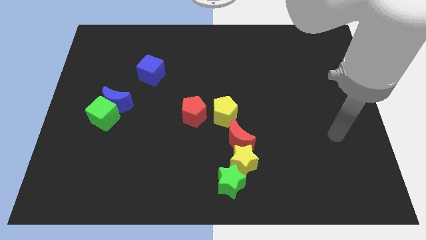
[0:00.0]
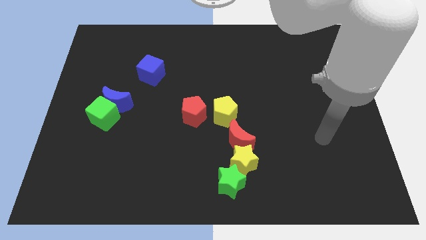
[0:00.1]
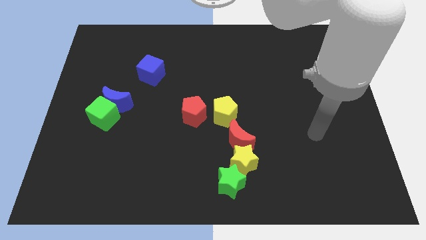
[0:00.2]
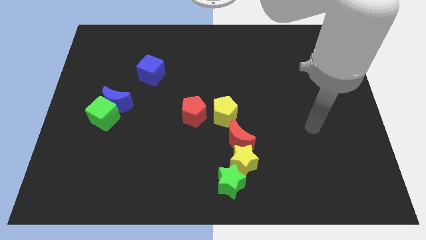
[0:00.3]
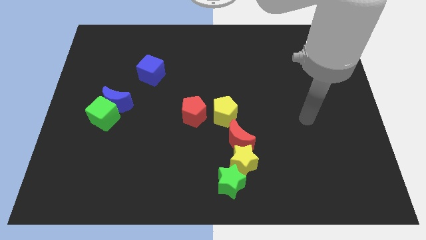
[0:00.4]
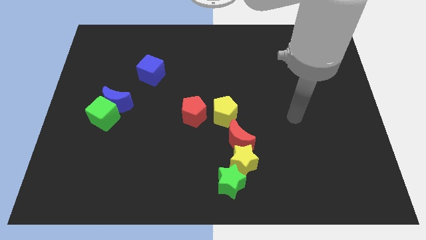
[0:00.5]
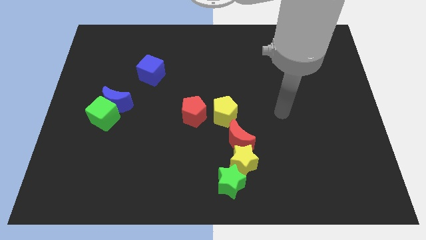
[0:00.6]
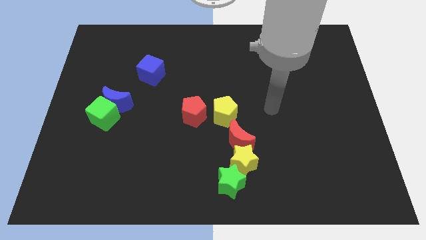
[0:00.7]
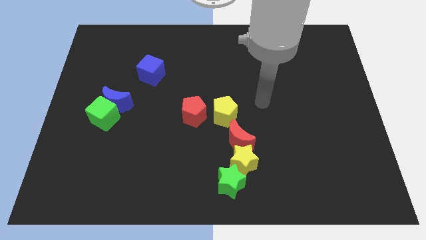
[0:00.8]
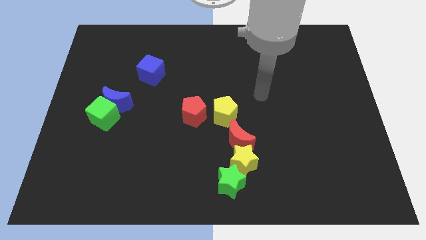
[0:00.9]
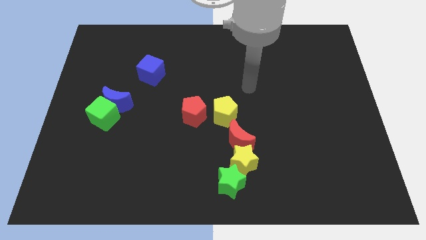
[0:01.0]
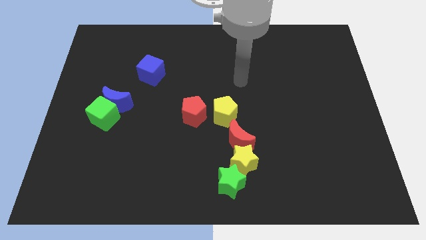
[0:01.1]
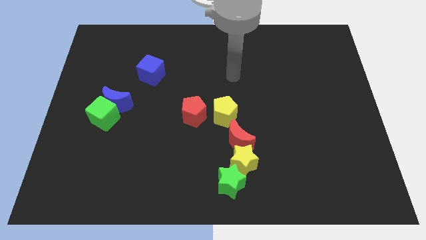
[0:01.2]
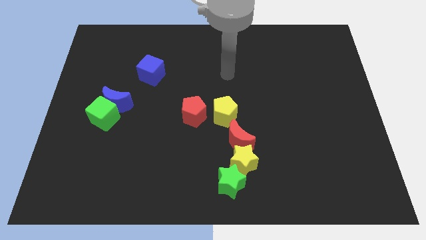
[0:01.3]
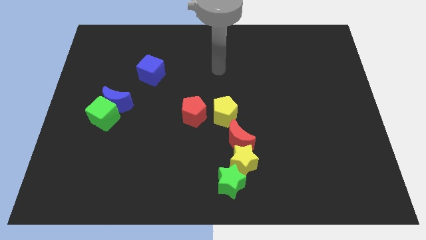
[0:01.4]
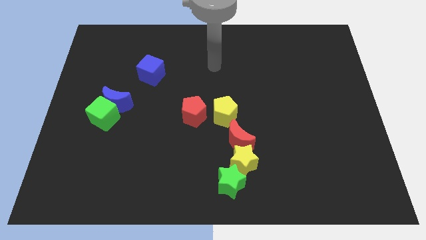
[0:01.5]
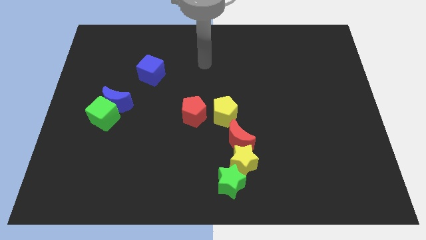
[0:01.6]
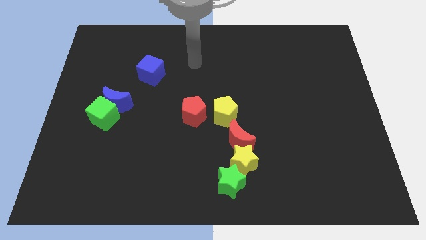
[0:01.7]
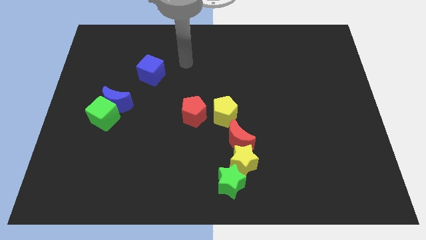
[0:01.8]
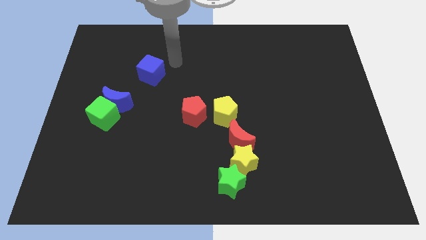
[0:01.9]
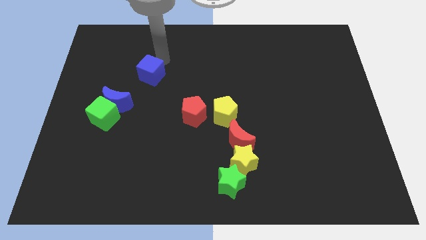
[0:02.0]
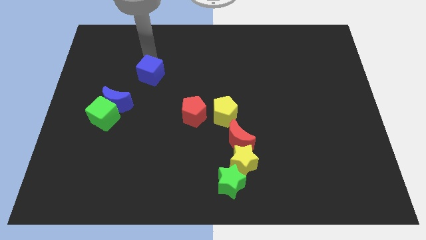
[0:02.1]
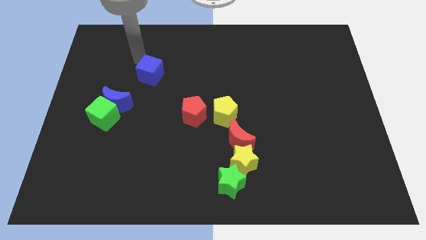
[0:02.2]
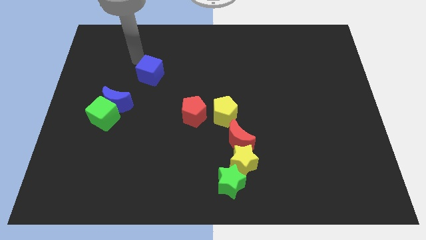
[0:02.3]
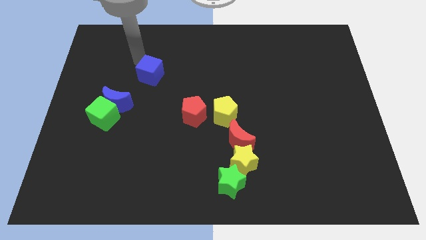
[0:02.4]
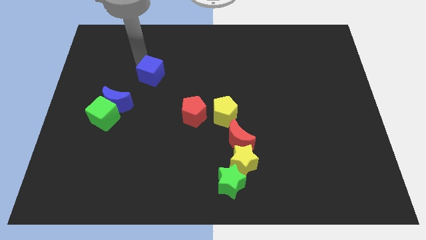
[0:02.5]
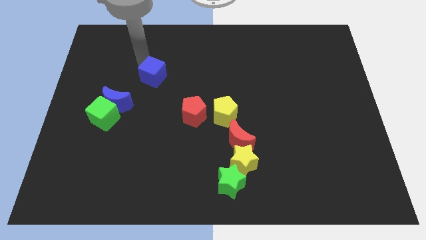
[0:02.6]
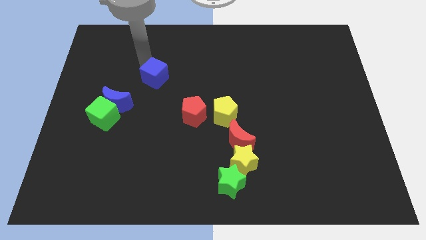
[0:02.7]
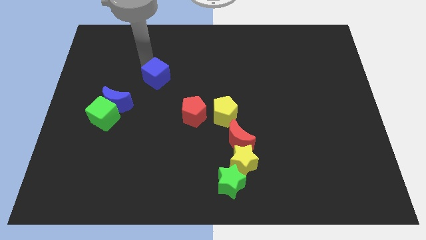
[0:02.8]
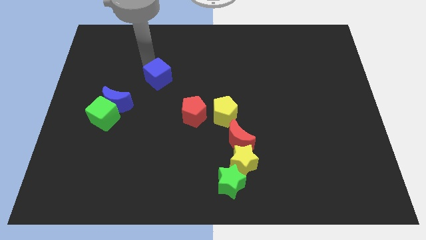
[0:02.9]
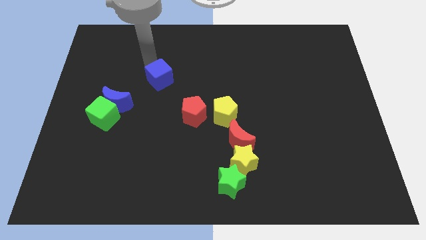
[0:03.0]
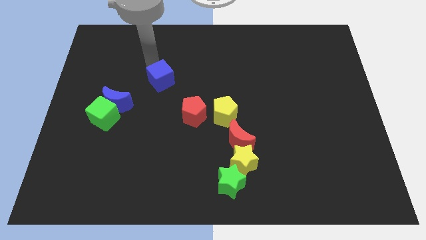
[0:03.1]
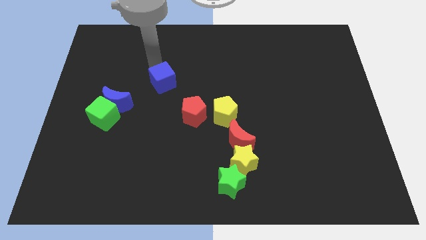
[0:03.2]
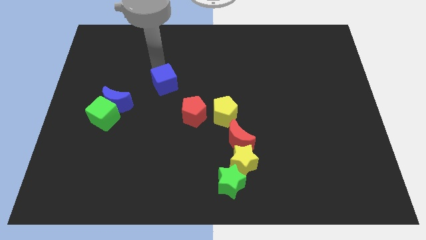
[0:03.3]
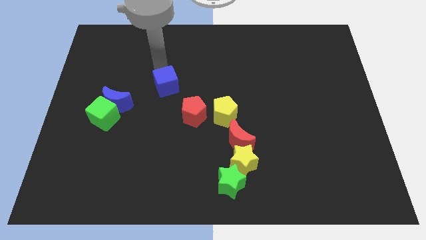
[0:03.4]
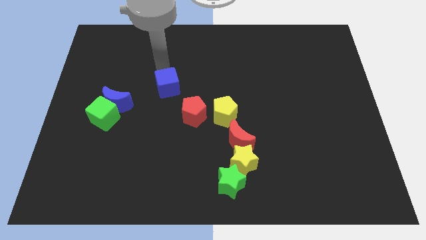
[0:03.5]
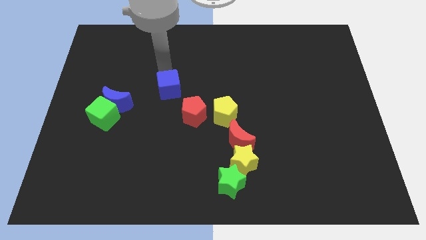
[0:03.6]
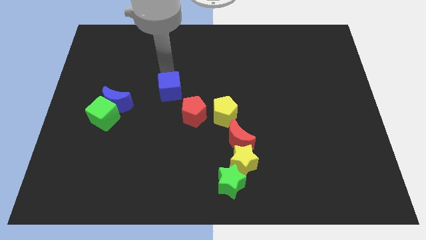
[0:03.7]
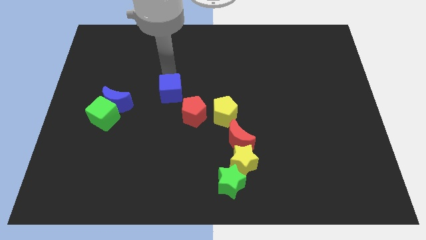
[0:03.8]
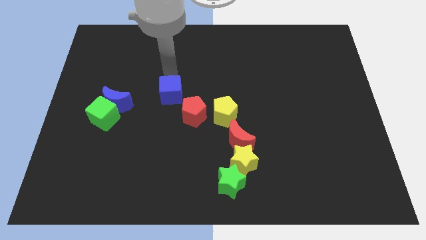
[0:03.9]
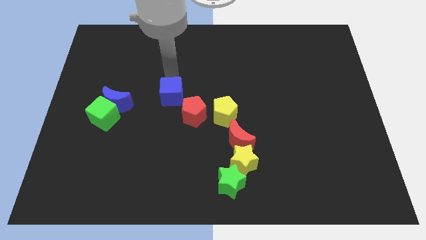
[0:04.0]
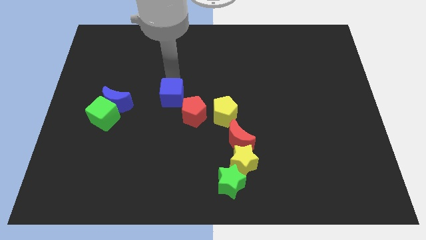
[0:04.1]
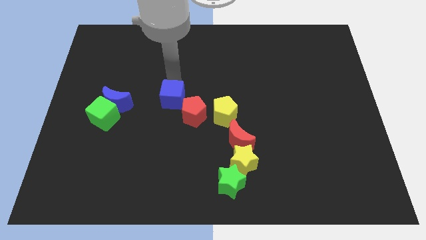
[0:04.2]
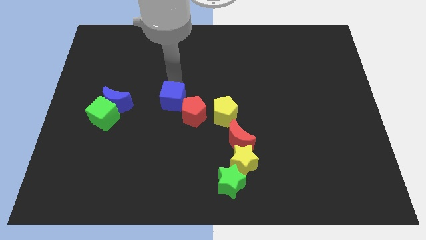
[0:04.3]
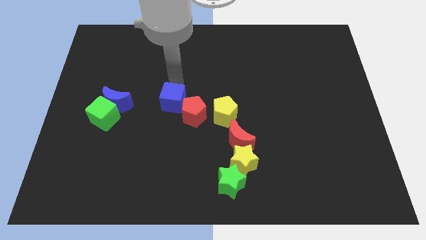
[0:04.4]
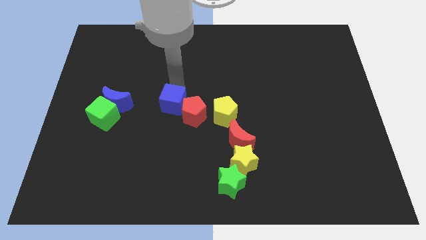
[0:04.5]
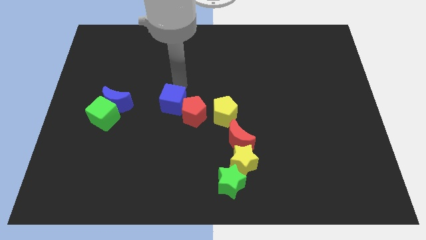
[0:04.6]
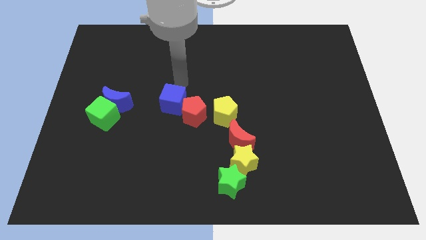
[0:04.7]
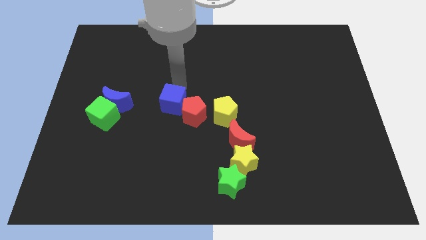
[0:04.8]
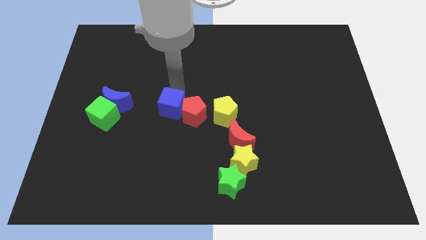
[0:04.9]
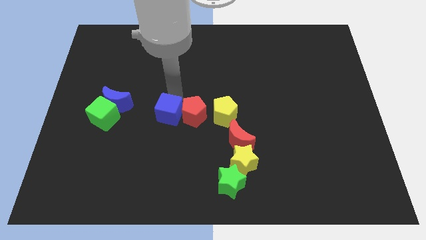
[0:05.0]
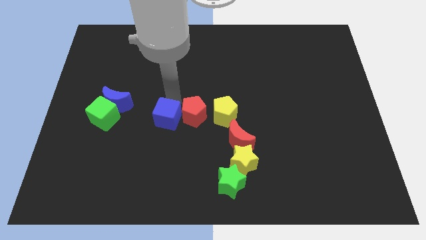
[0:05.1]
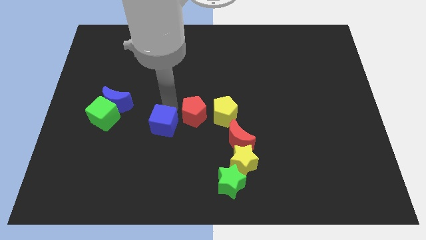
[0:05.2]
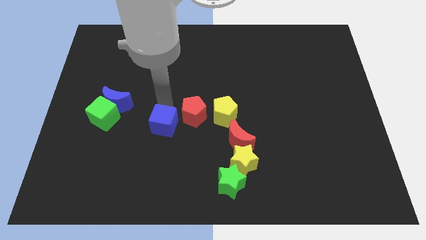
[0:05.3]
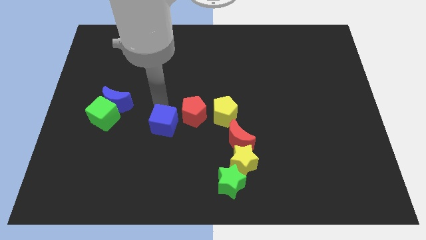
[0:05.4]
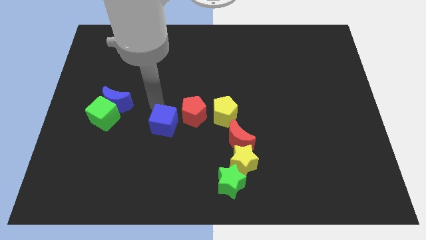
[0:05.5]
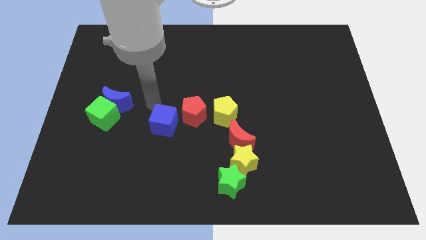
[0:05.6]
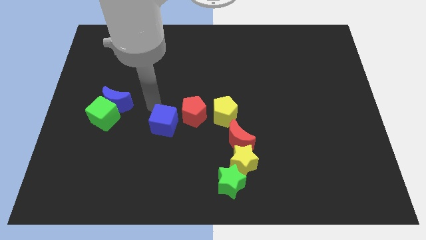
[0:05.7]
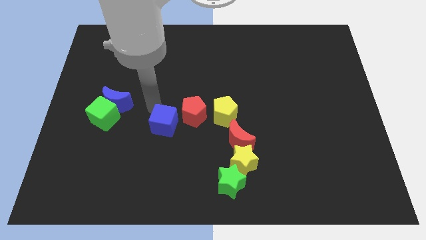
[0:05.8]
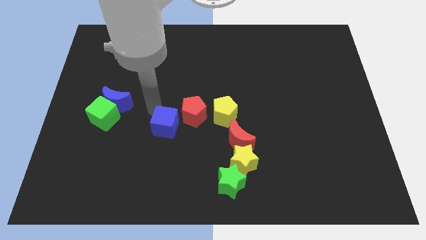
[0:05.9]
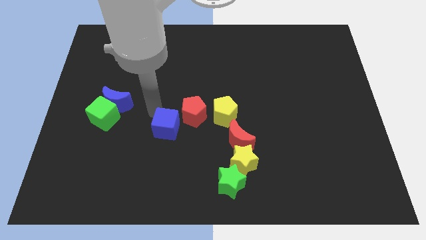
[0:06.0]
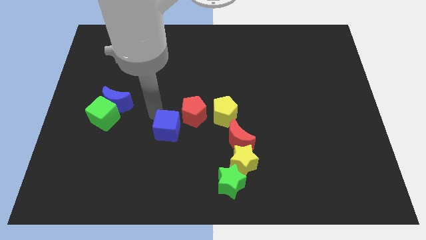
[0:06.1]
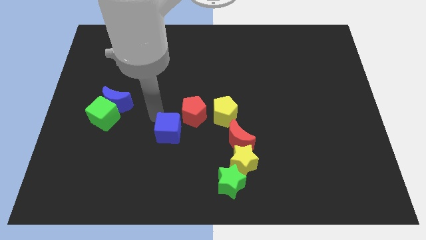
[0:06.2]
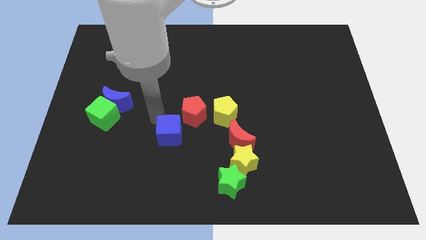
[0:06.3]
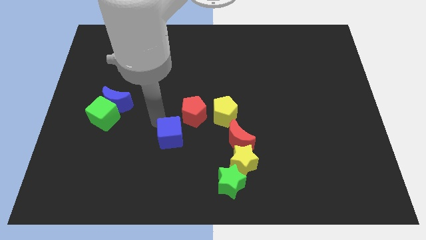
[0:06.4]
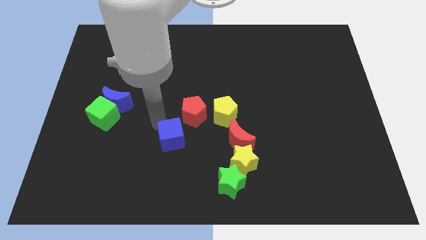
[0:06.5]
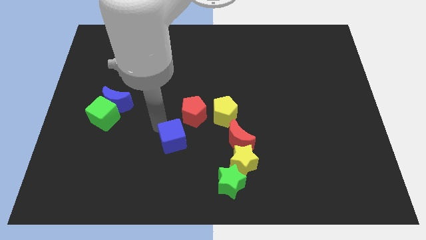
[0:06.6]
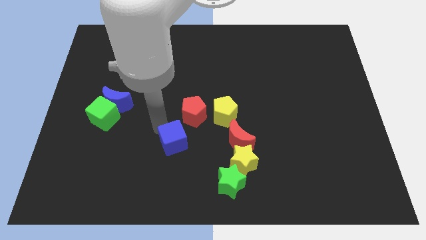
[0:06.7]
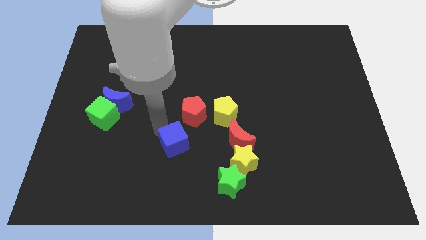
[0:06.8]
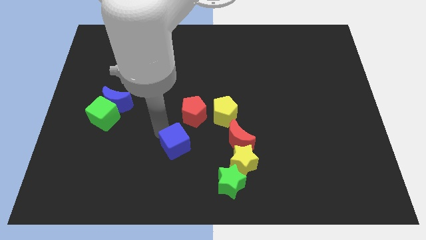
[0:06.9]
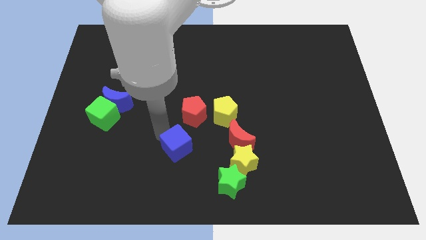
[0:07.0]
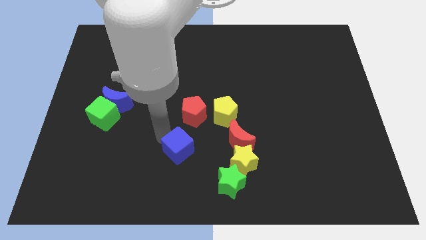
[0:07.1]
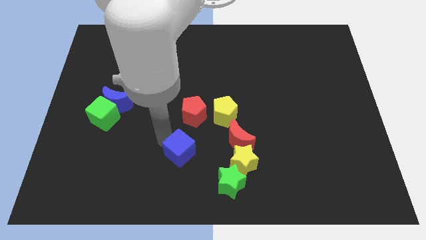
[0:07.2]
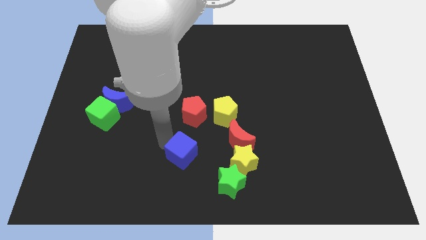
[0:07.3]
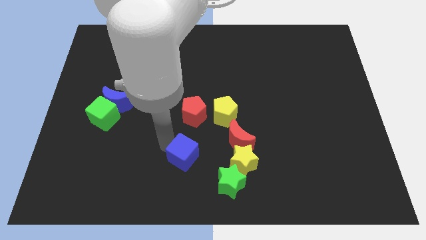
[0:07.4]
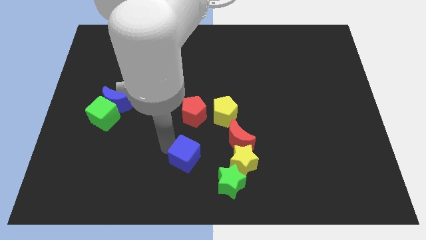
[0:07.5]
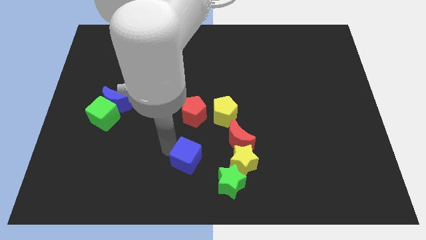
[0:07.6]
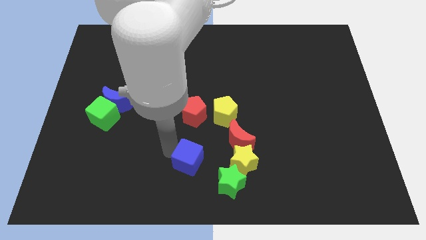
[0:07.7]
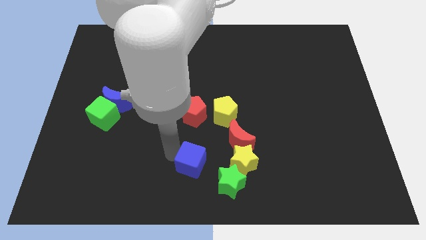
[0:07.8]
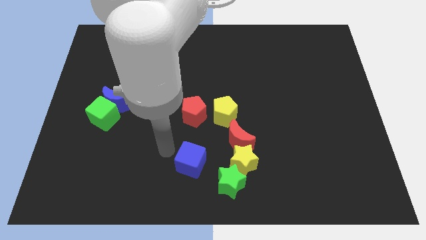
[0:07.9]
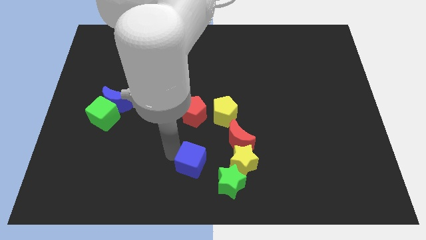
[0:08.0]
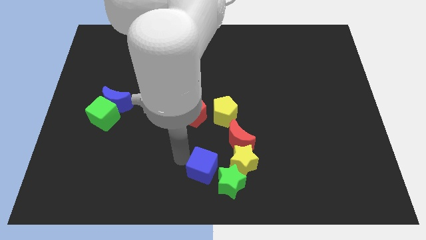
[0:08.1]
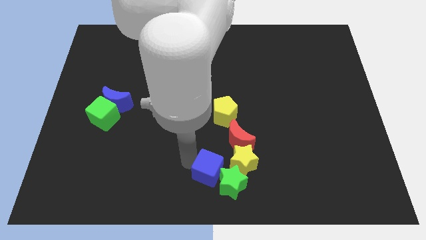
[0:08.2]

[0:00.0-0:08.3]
slide the blue cube next to the green star
